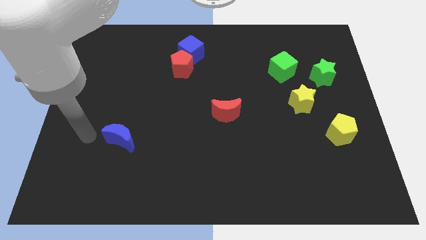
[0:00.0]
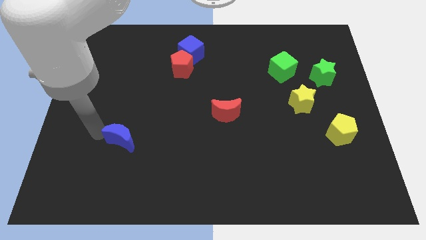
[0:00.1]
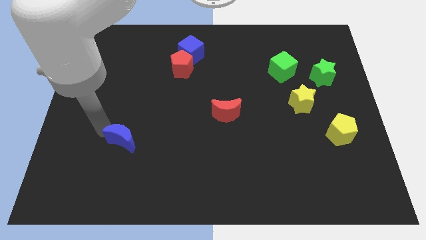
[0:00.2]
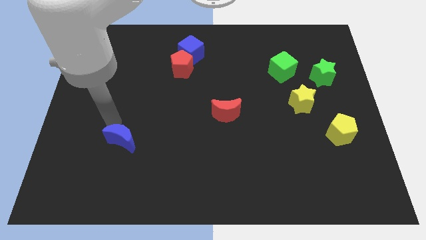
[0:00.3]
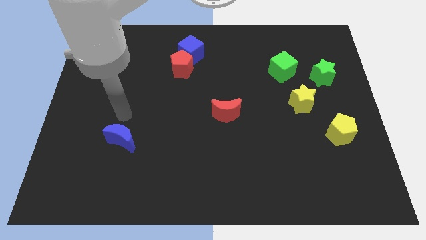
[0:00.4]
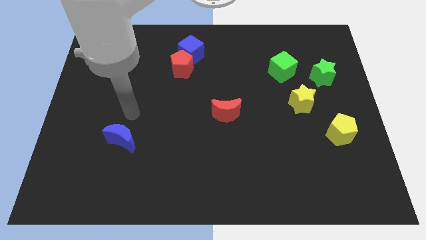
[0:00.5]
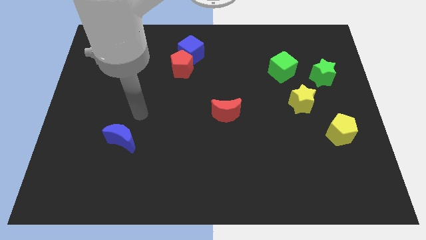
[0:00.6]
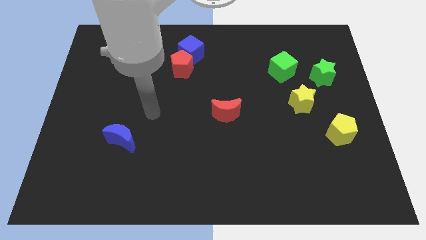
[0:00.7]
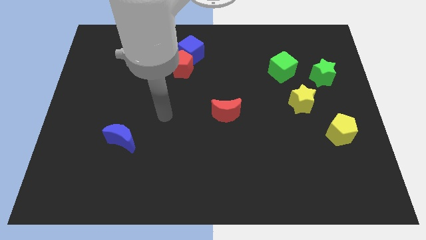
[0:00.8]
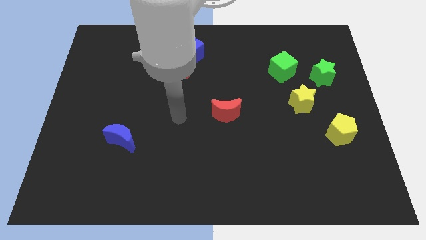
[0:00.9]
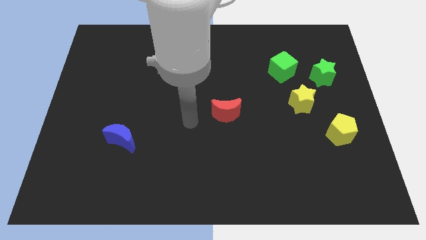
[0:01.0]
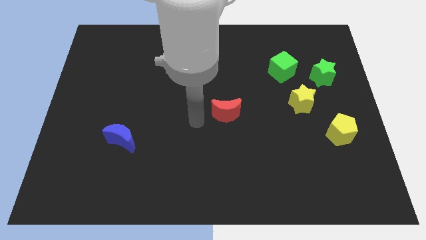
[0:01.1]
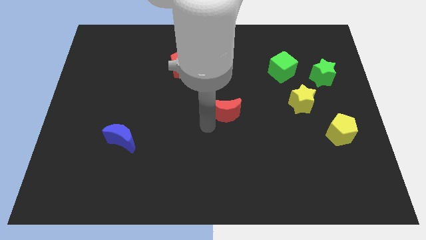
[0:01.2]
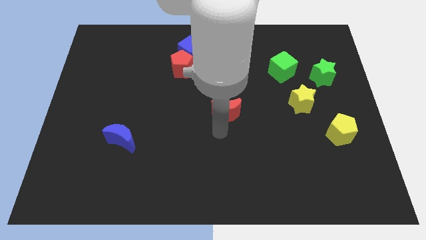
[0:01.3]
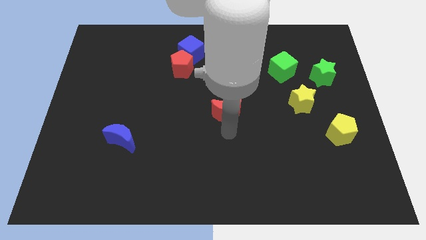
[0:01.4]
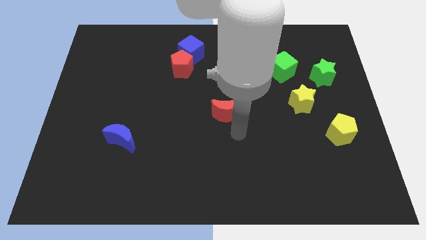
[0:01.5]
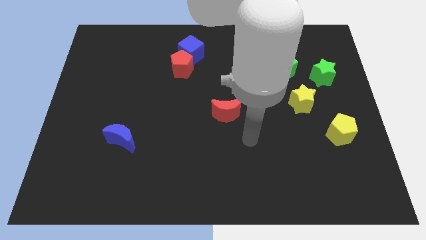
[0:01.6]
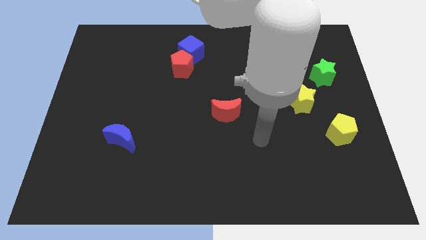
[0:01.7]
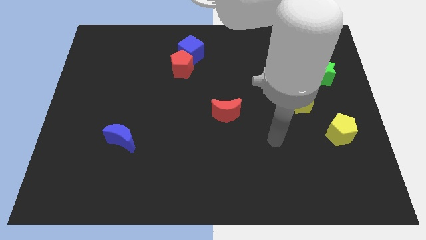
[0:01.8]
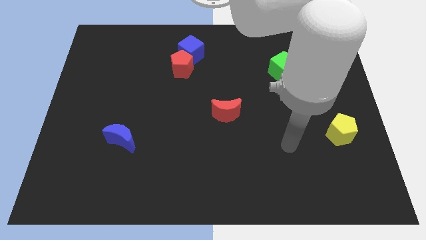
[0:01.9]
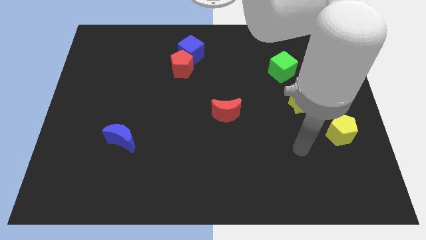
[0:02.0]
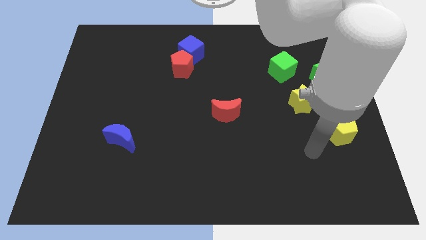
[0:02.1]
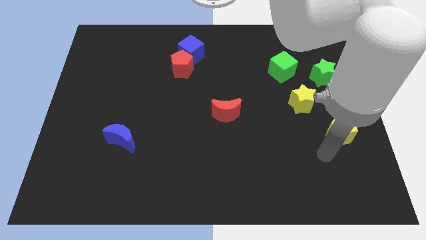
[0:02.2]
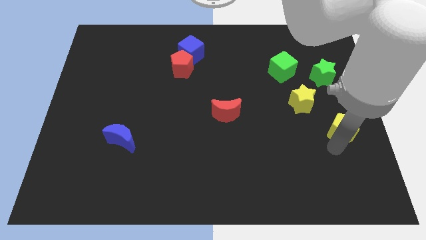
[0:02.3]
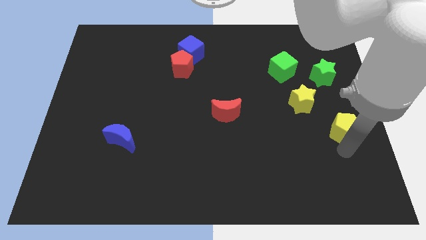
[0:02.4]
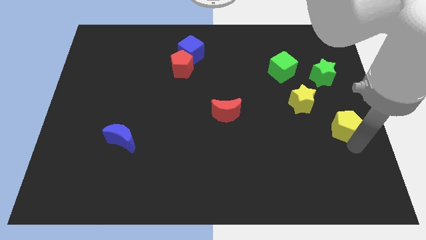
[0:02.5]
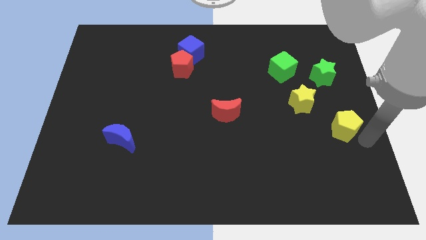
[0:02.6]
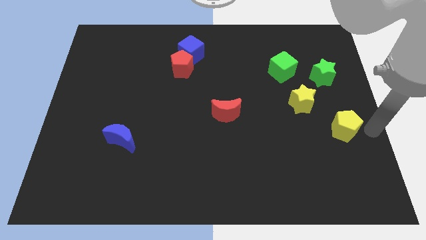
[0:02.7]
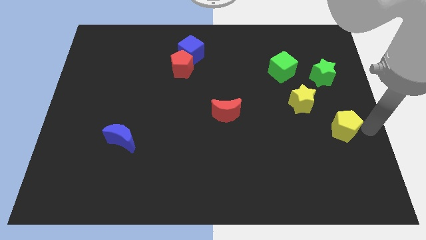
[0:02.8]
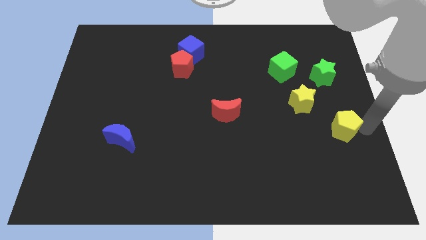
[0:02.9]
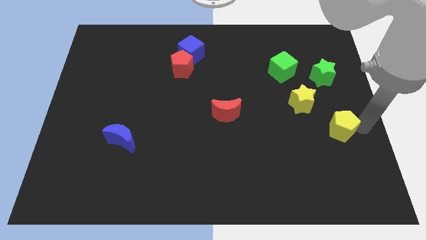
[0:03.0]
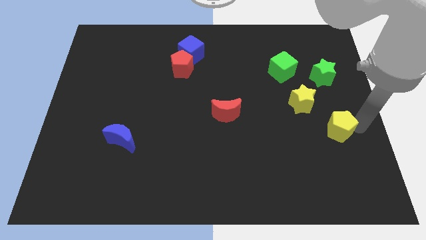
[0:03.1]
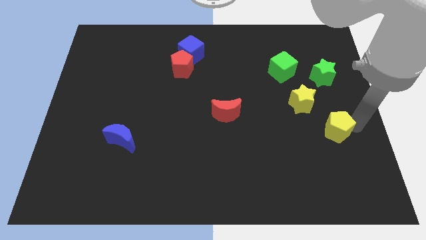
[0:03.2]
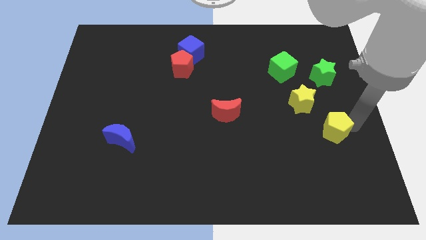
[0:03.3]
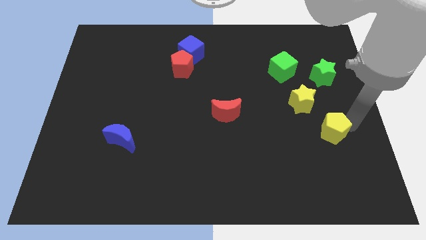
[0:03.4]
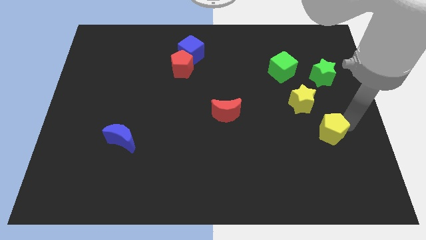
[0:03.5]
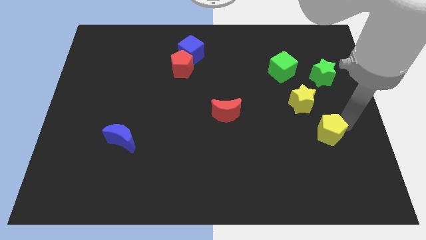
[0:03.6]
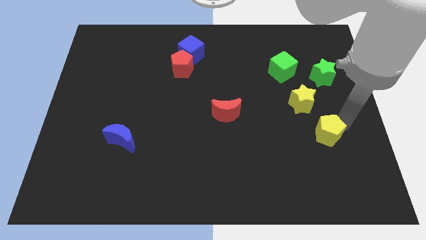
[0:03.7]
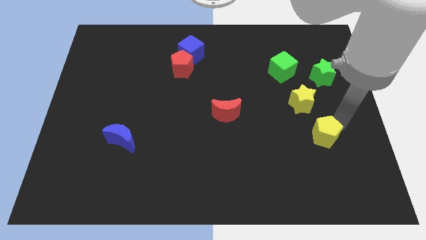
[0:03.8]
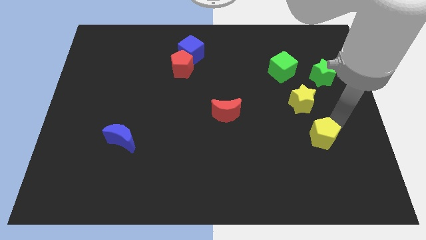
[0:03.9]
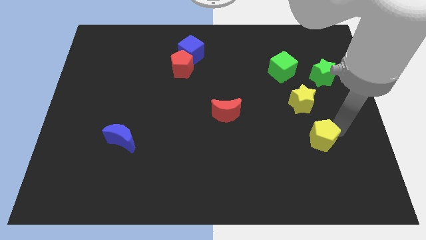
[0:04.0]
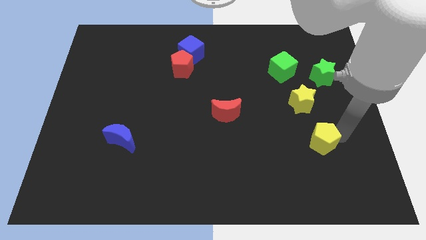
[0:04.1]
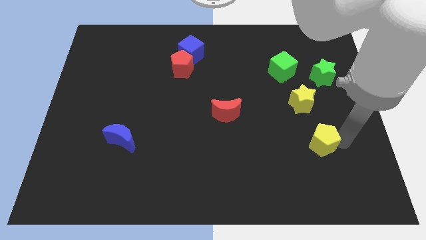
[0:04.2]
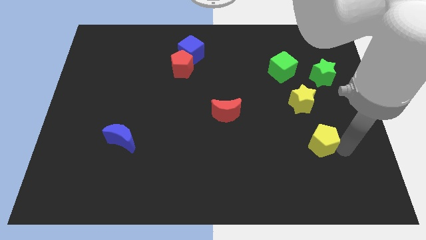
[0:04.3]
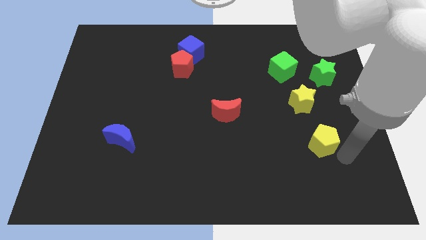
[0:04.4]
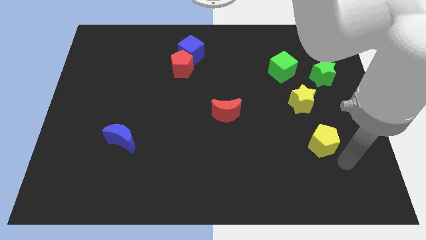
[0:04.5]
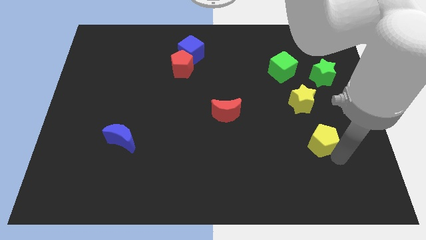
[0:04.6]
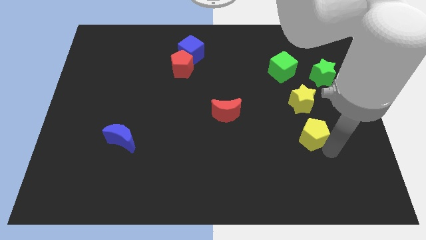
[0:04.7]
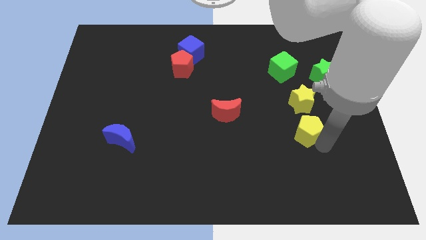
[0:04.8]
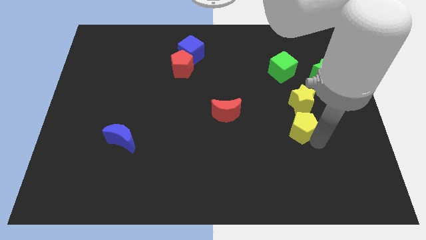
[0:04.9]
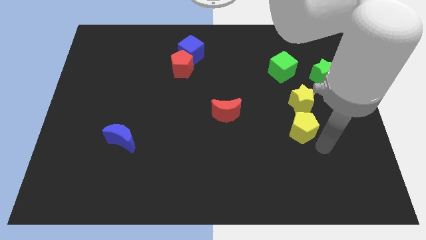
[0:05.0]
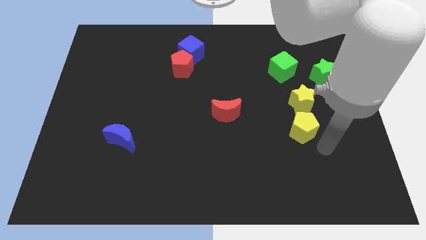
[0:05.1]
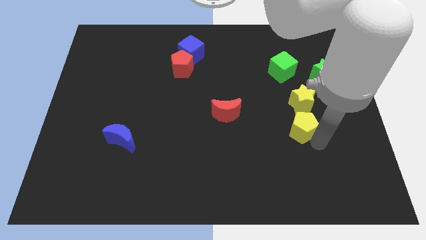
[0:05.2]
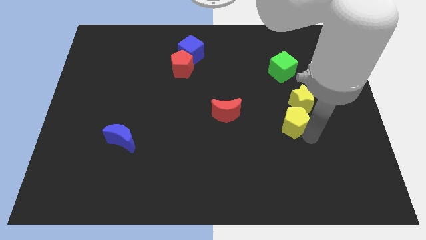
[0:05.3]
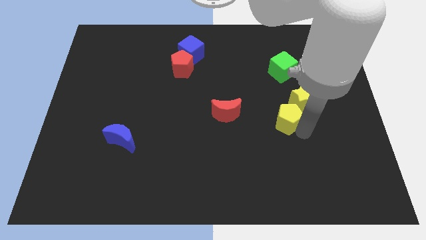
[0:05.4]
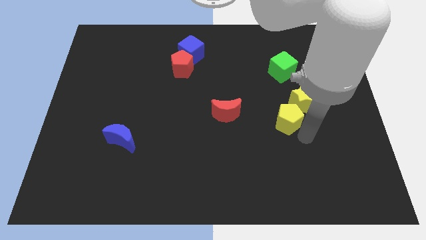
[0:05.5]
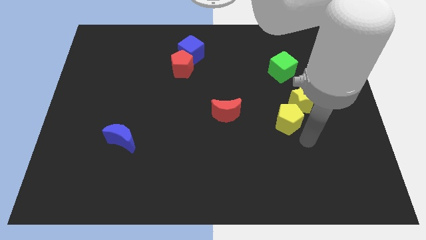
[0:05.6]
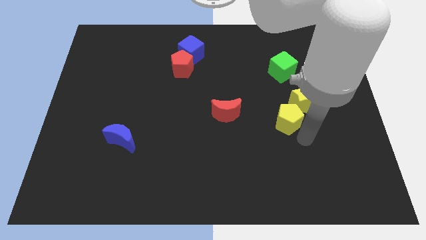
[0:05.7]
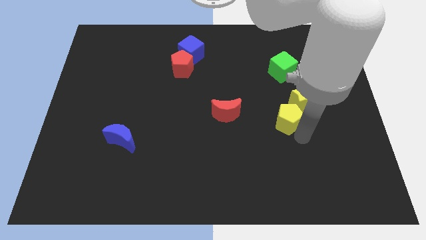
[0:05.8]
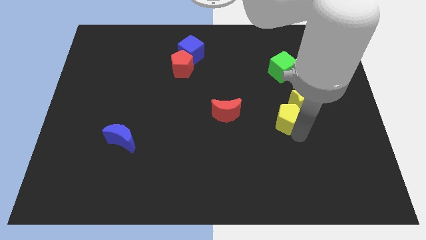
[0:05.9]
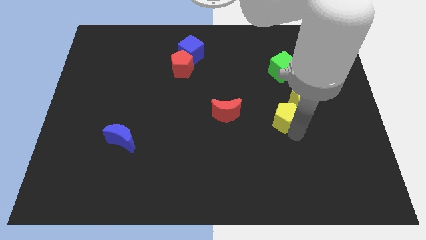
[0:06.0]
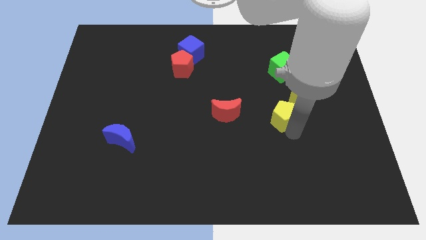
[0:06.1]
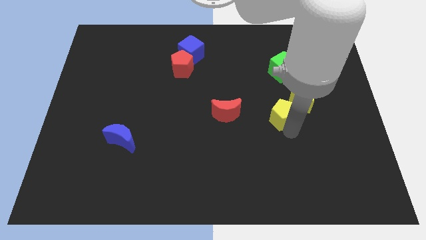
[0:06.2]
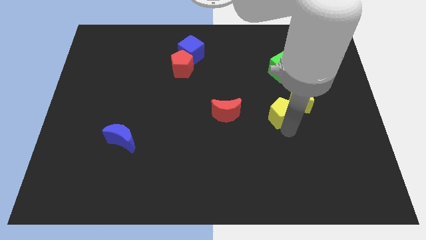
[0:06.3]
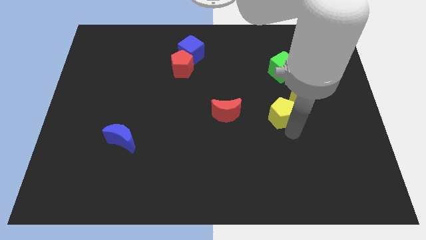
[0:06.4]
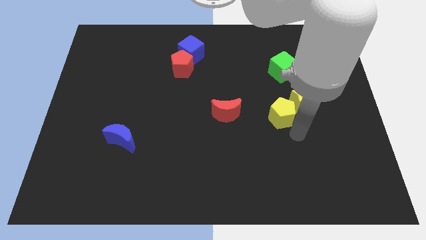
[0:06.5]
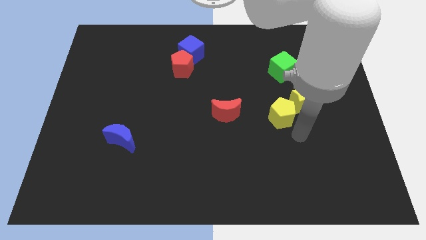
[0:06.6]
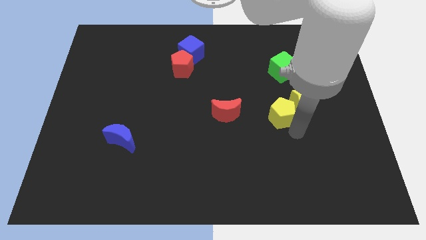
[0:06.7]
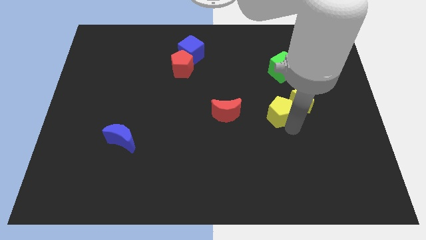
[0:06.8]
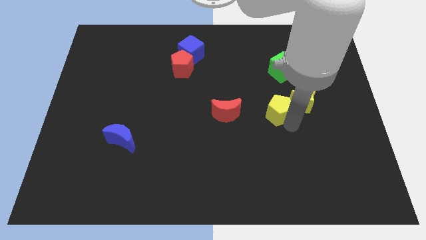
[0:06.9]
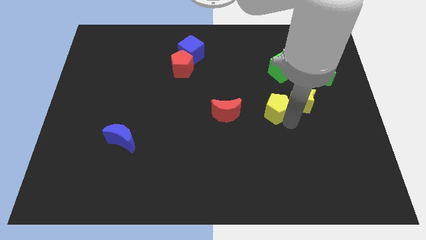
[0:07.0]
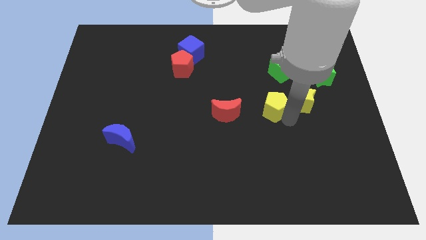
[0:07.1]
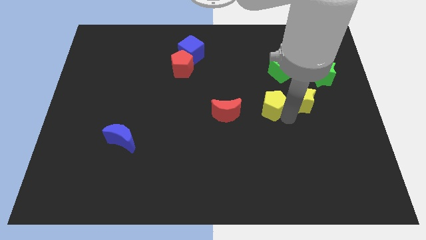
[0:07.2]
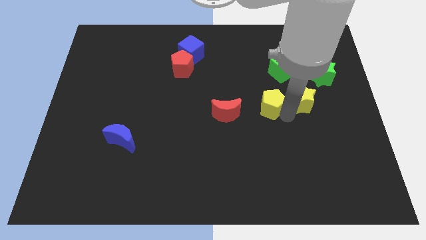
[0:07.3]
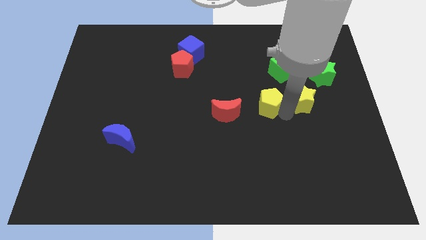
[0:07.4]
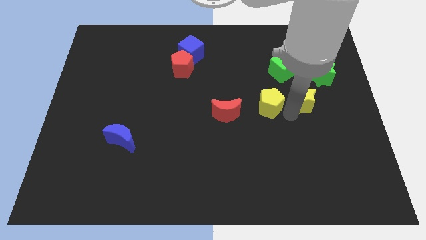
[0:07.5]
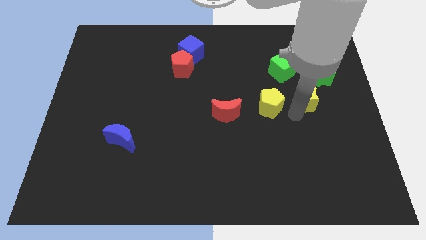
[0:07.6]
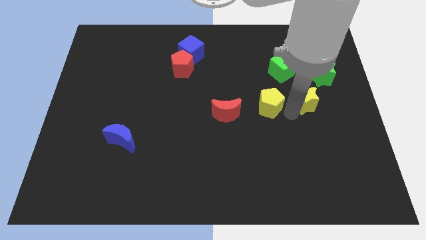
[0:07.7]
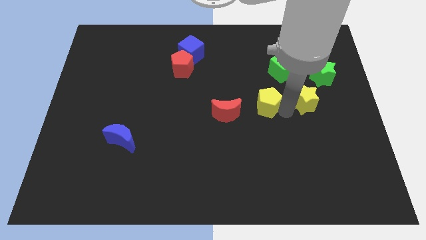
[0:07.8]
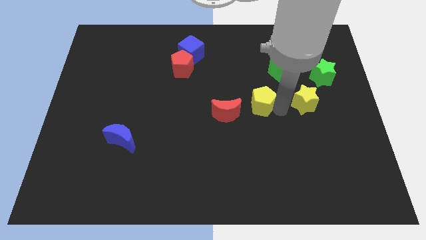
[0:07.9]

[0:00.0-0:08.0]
move the yellow pentagon to the middle of the board
